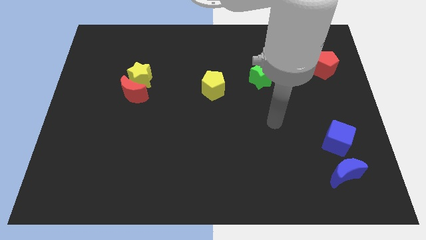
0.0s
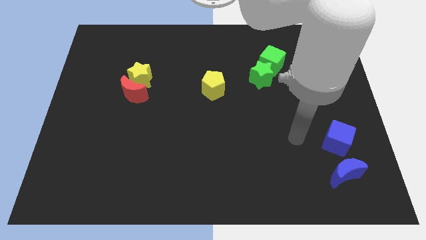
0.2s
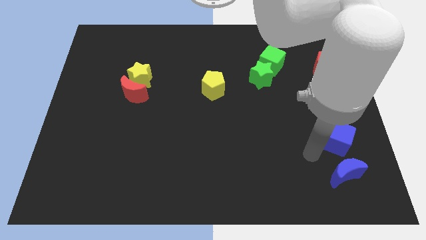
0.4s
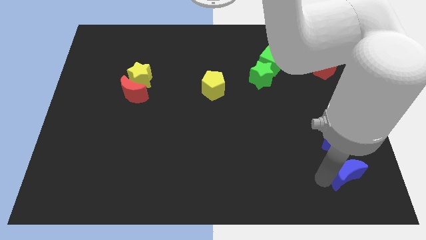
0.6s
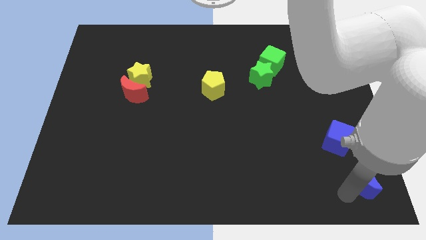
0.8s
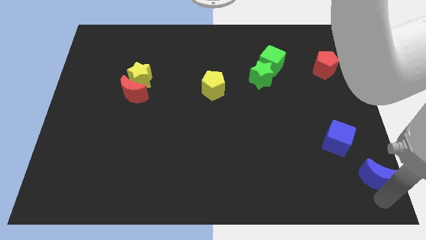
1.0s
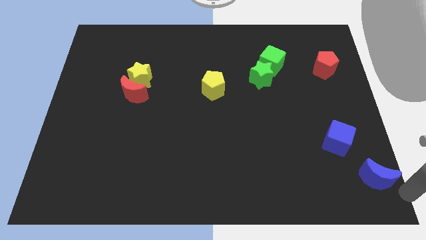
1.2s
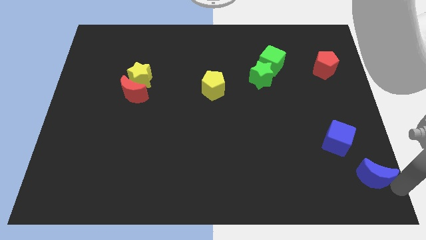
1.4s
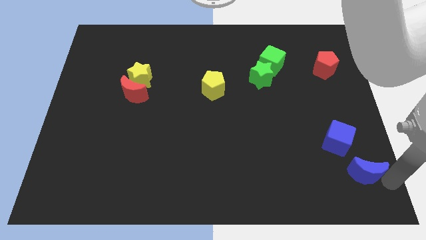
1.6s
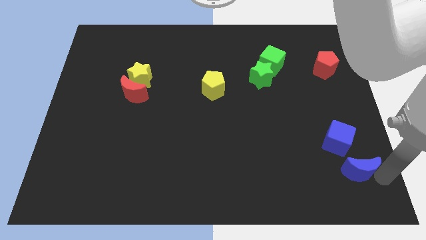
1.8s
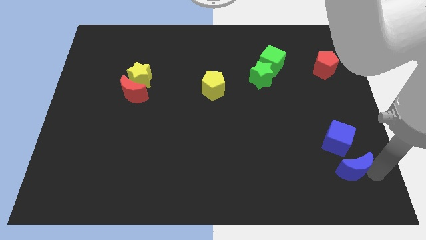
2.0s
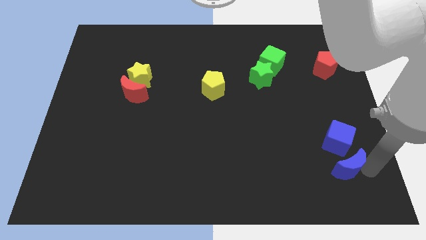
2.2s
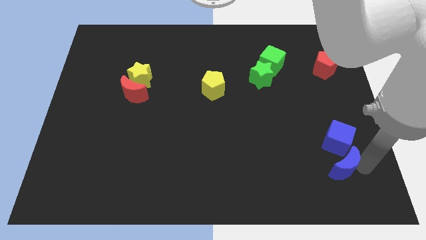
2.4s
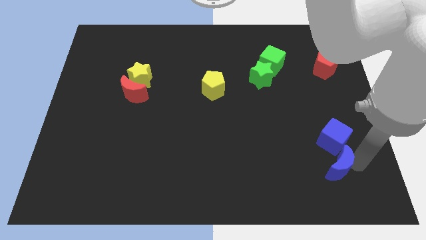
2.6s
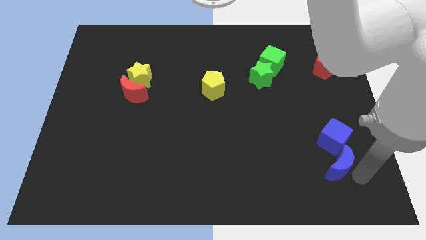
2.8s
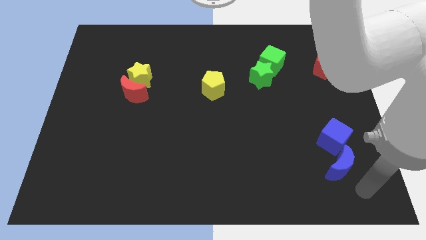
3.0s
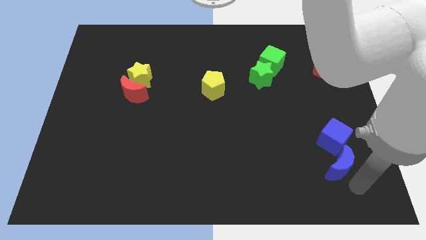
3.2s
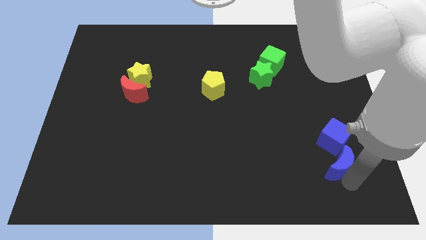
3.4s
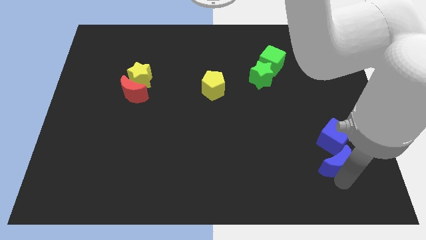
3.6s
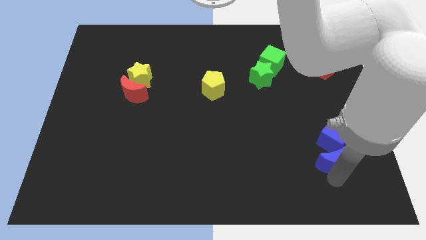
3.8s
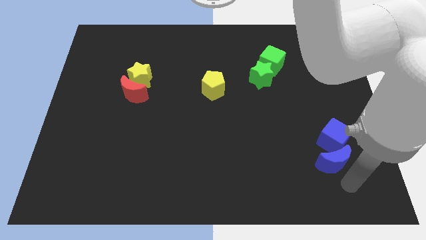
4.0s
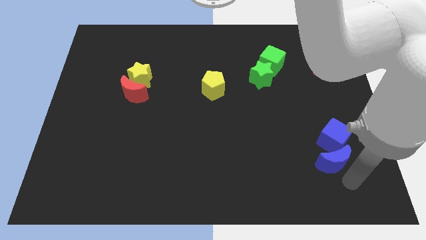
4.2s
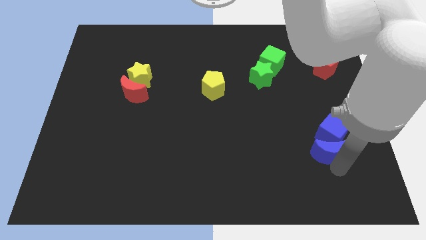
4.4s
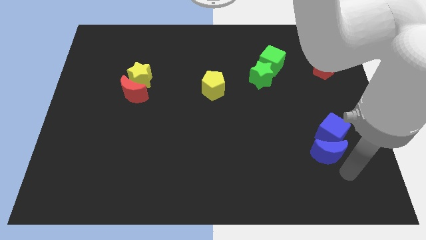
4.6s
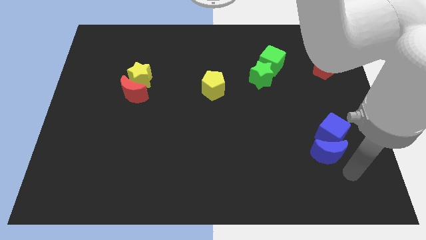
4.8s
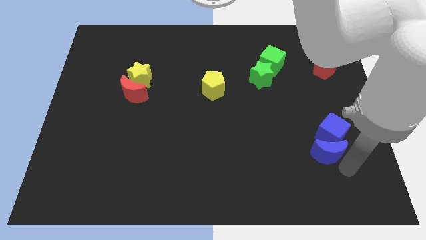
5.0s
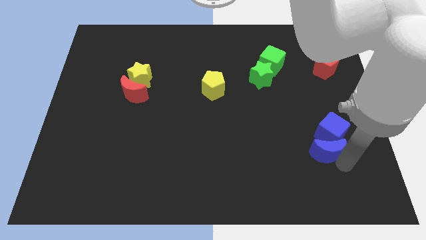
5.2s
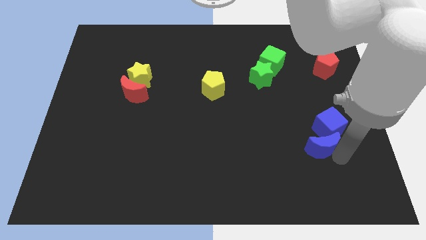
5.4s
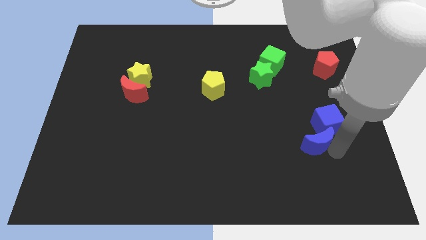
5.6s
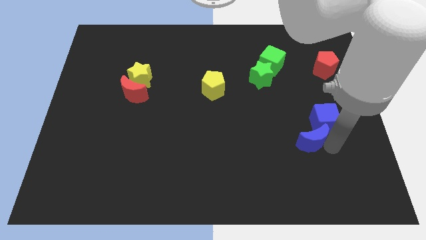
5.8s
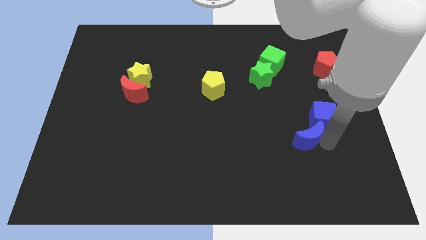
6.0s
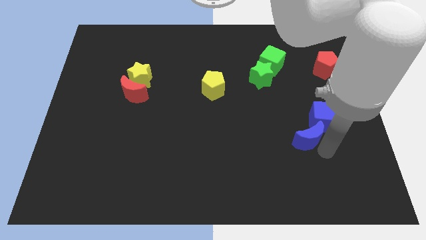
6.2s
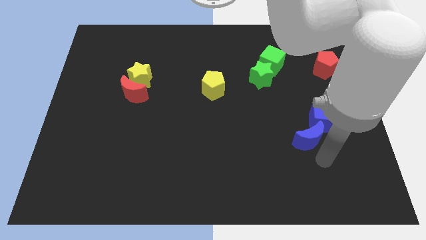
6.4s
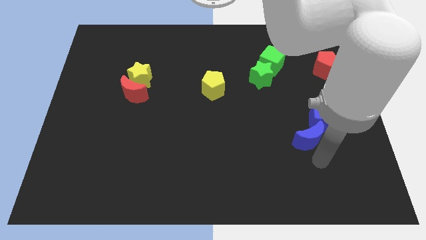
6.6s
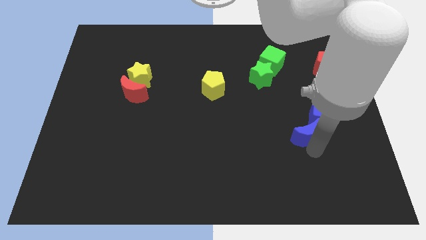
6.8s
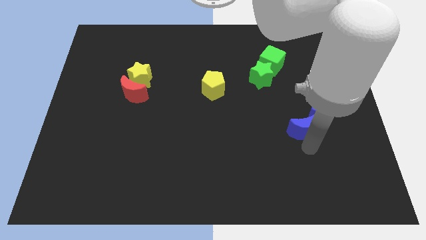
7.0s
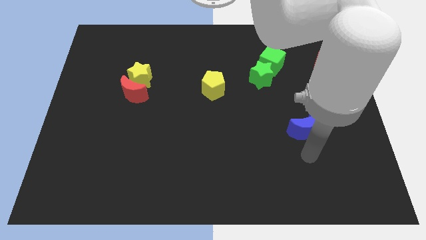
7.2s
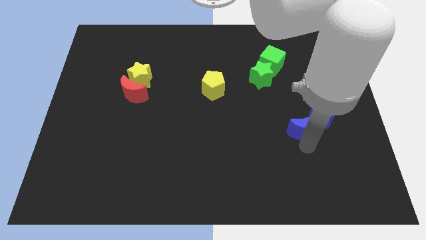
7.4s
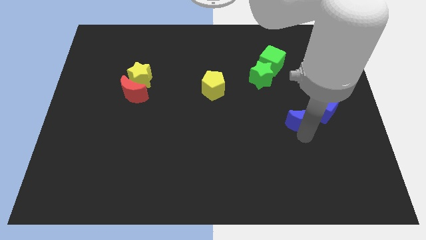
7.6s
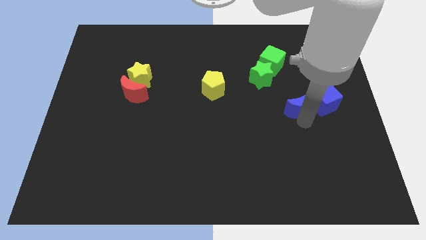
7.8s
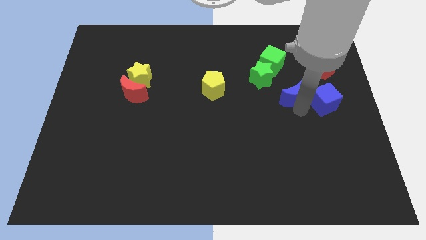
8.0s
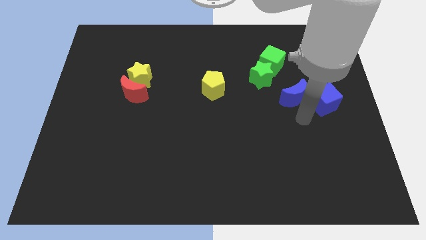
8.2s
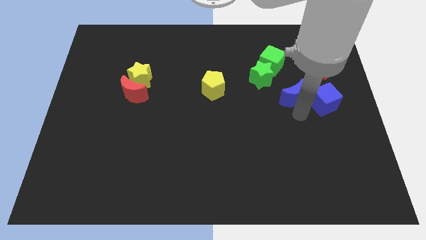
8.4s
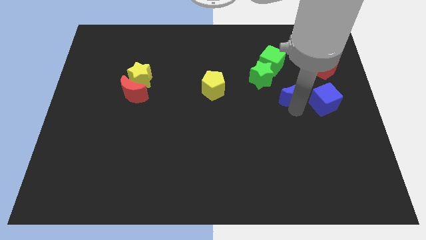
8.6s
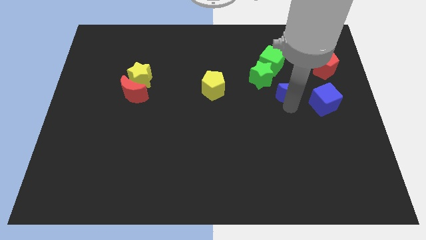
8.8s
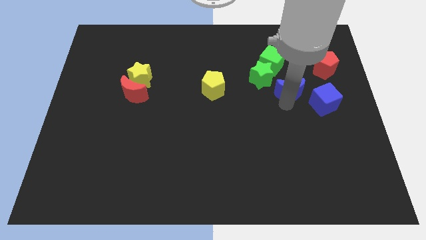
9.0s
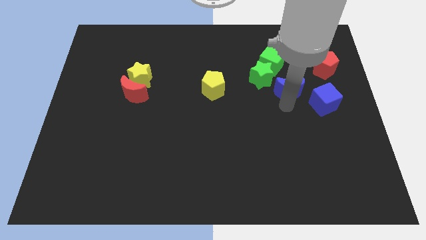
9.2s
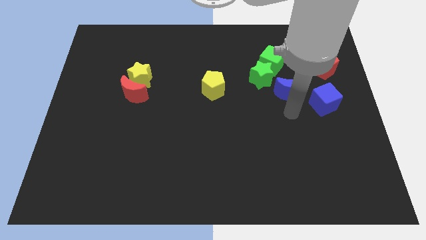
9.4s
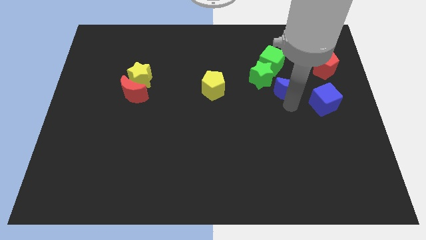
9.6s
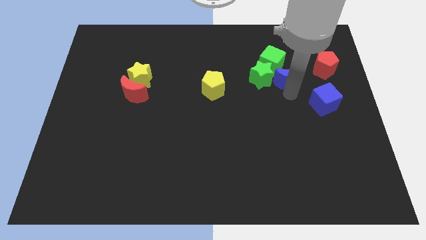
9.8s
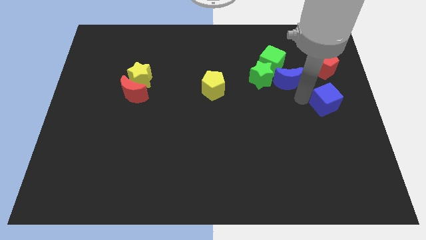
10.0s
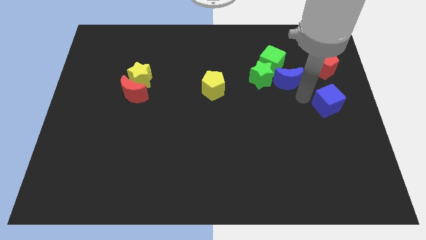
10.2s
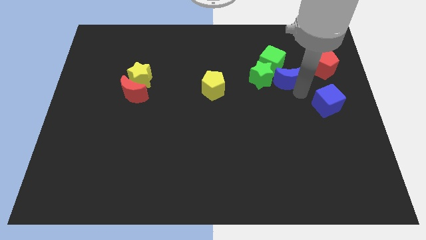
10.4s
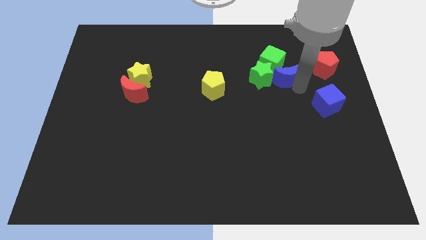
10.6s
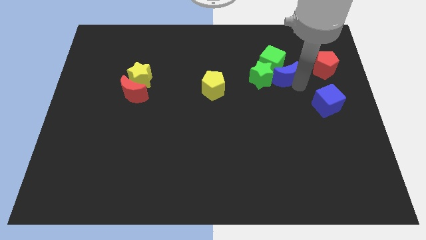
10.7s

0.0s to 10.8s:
put the blue moon towards the green cube

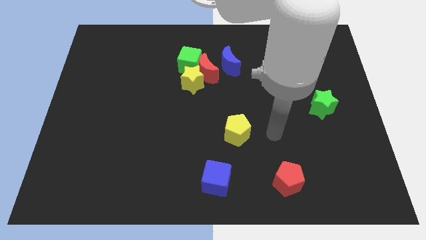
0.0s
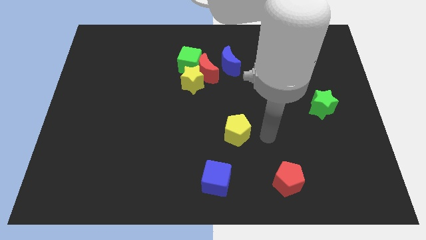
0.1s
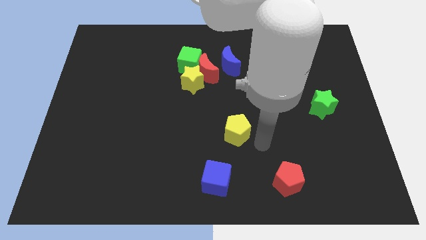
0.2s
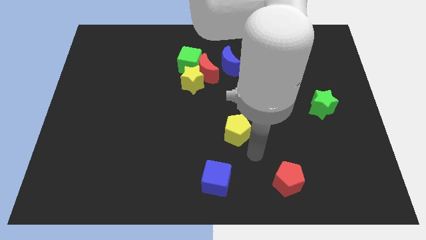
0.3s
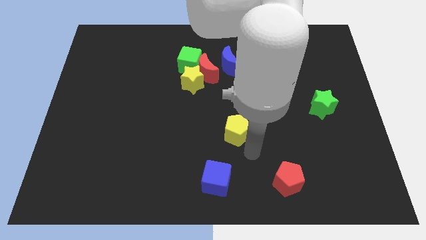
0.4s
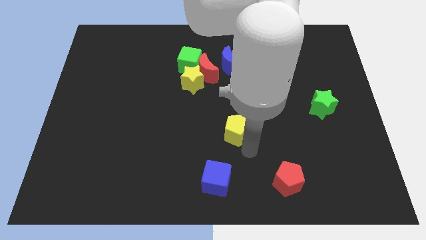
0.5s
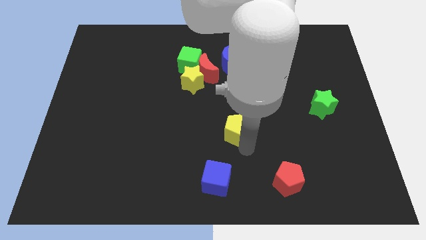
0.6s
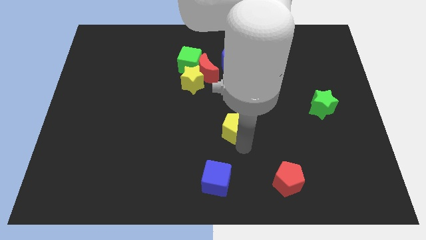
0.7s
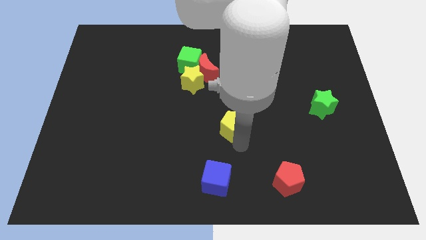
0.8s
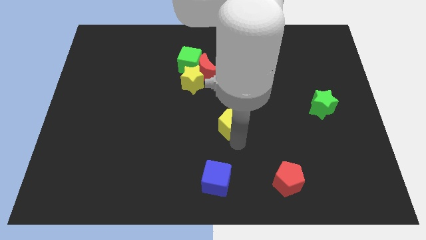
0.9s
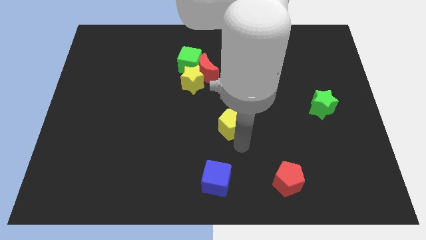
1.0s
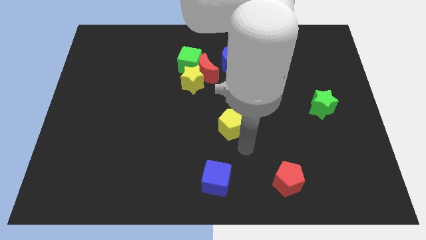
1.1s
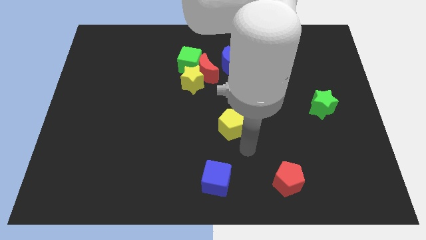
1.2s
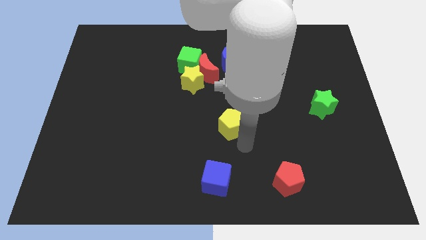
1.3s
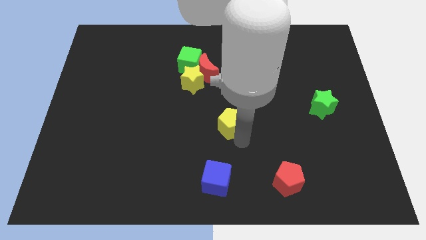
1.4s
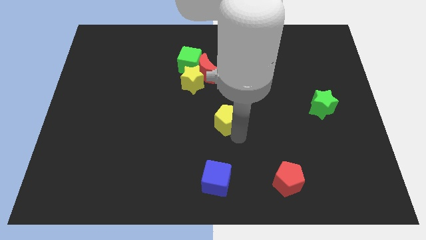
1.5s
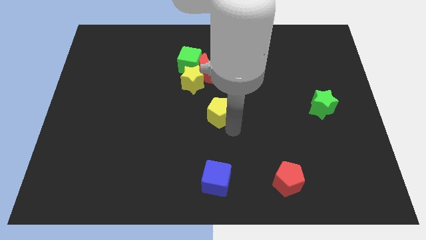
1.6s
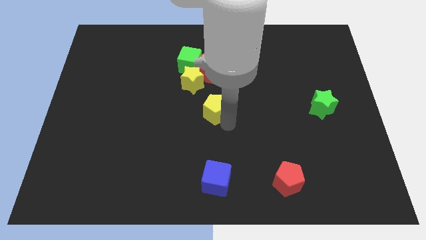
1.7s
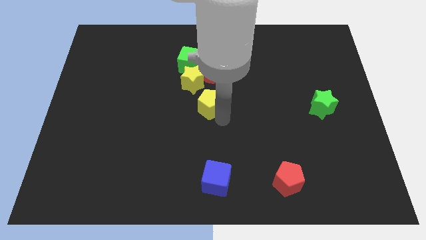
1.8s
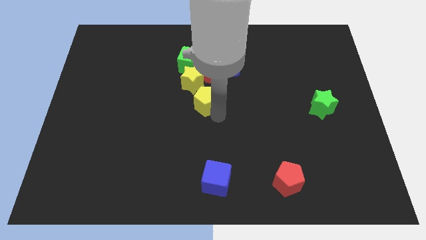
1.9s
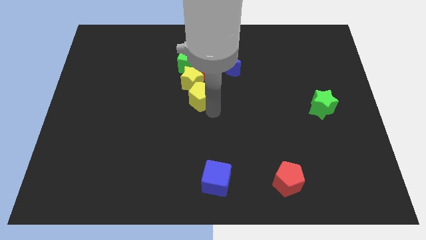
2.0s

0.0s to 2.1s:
slide the yellow pentagon to the yellow star

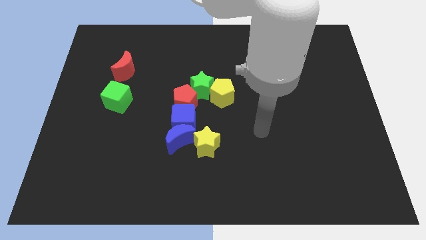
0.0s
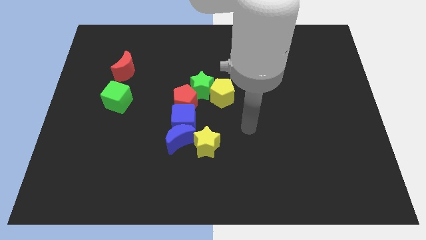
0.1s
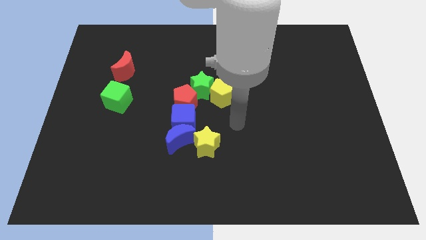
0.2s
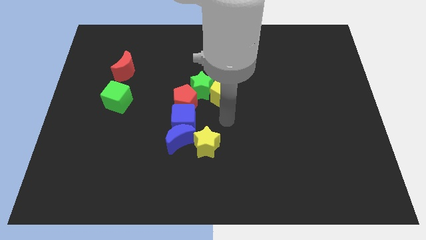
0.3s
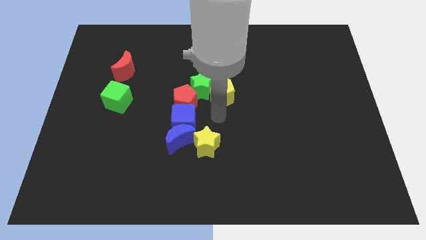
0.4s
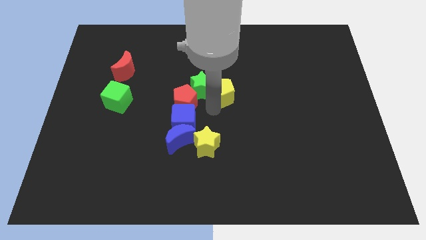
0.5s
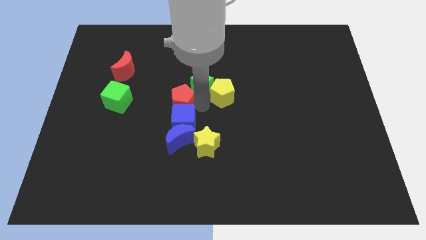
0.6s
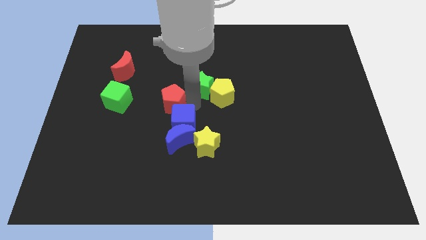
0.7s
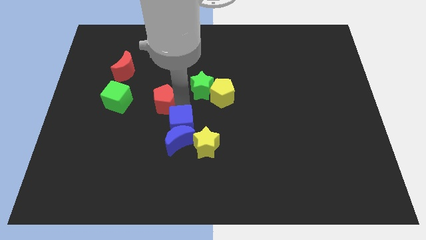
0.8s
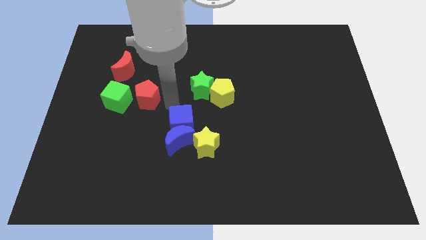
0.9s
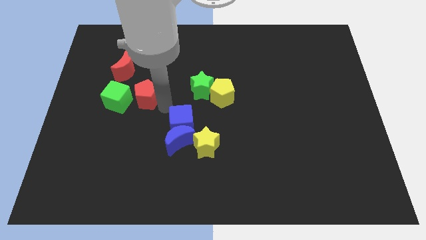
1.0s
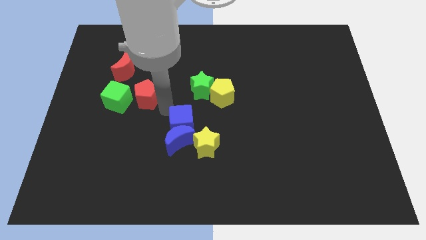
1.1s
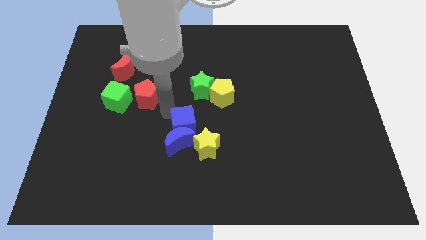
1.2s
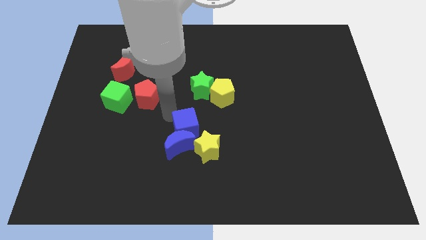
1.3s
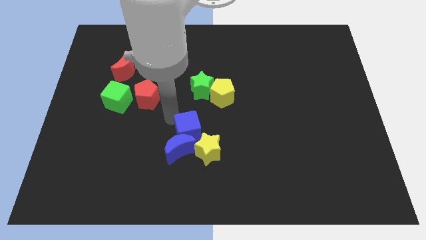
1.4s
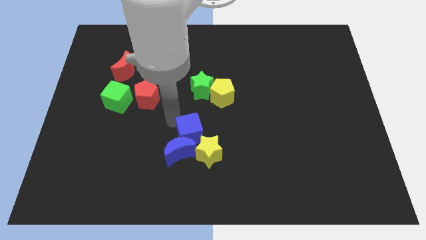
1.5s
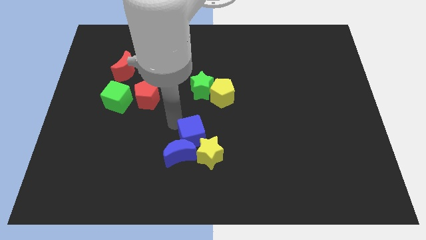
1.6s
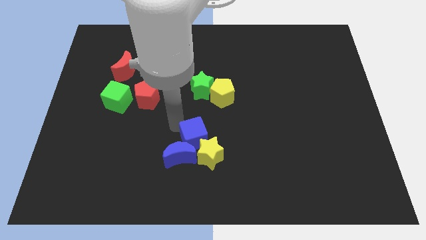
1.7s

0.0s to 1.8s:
slide the blue cube to the yellow star
